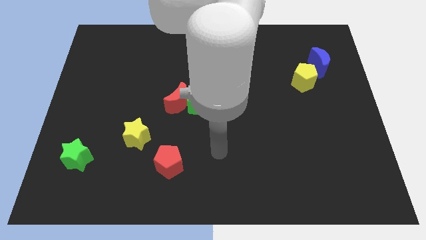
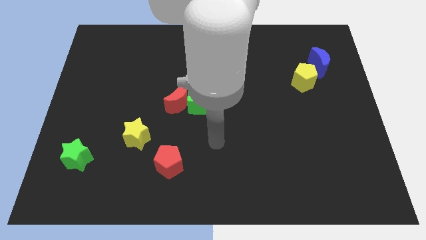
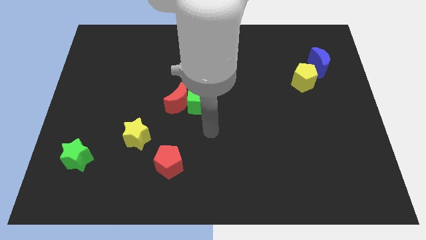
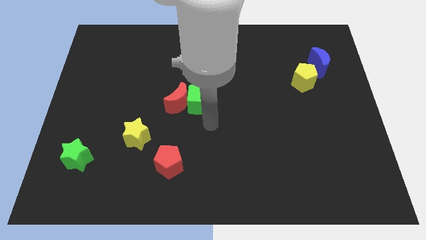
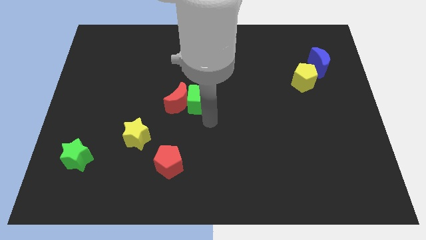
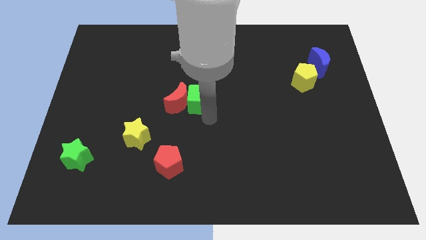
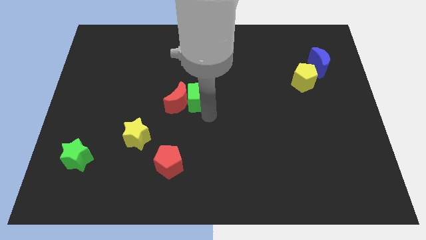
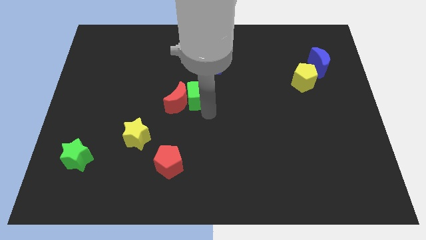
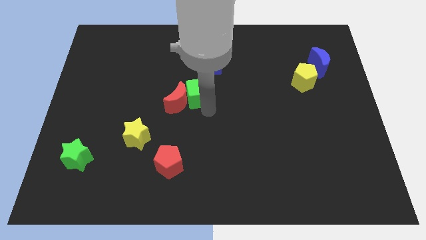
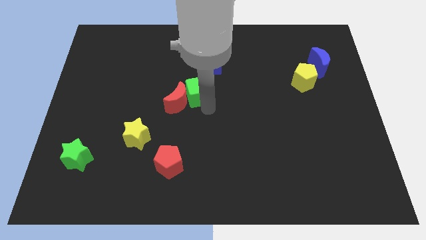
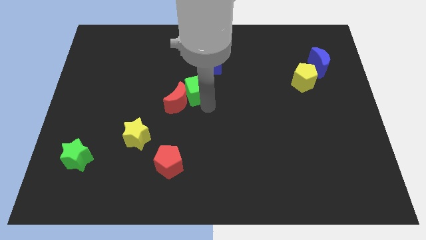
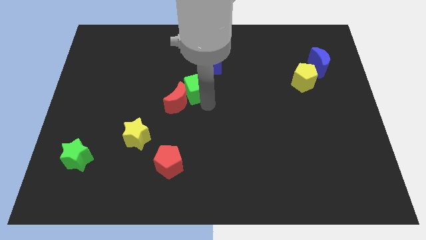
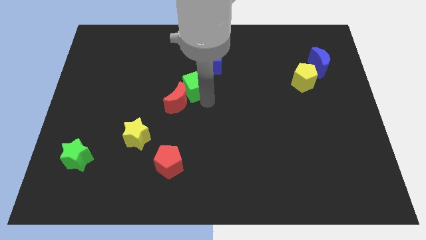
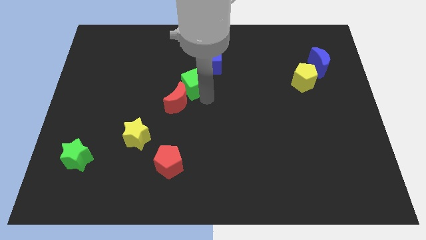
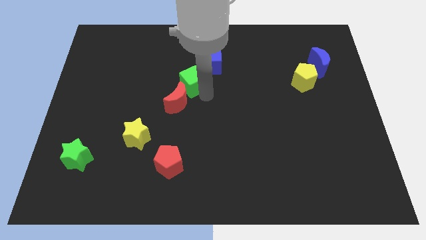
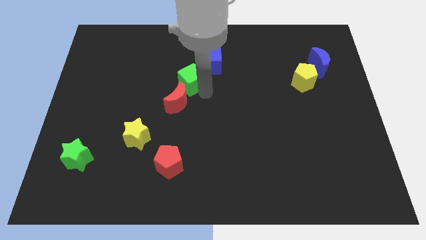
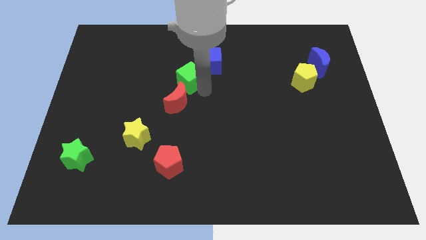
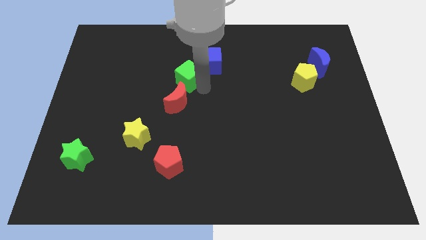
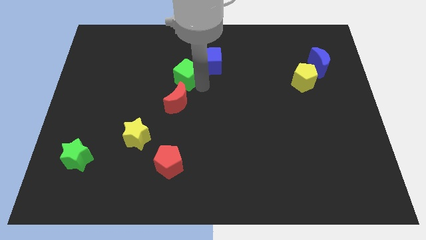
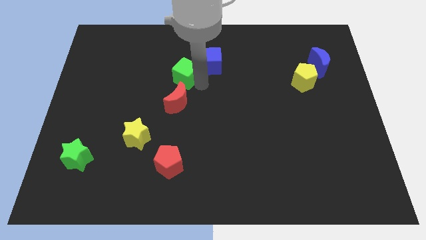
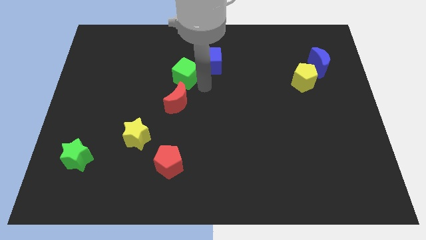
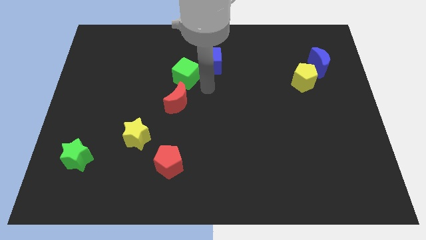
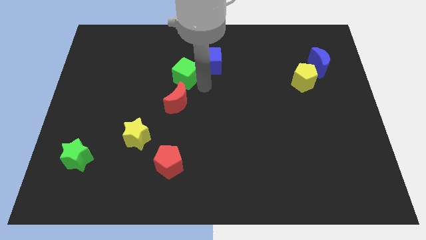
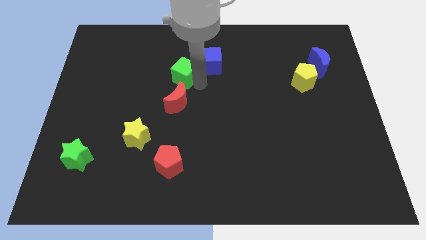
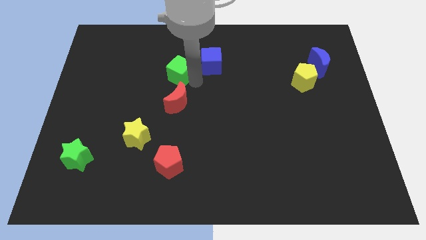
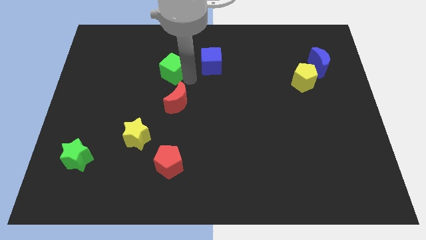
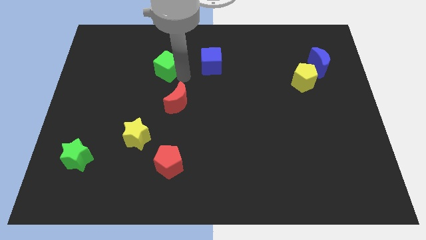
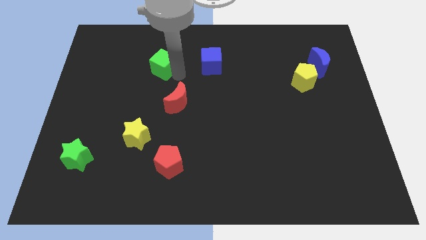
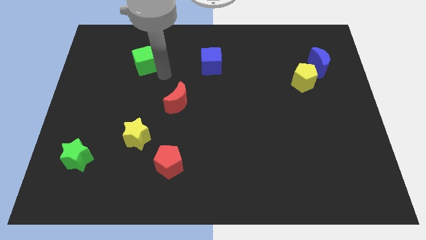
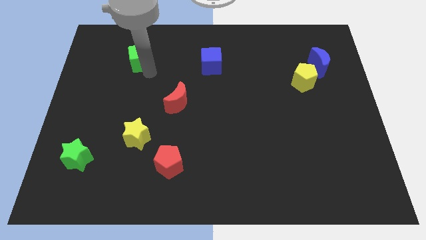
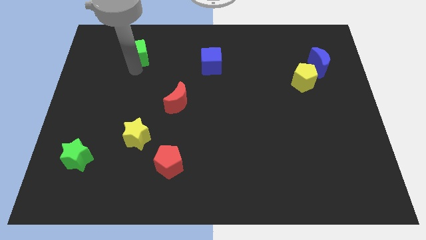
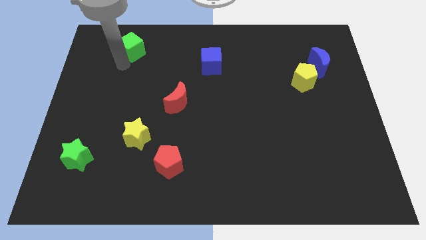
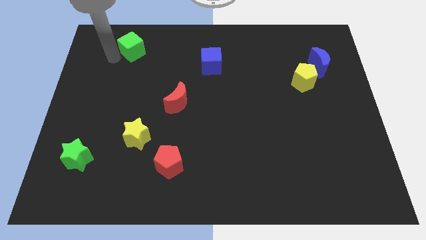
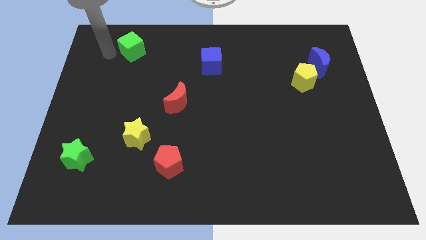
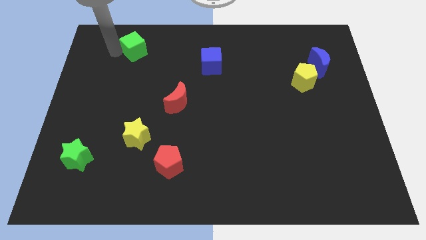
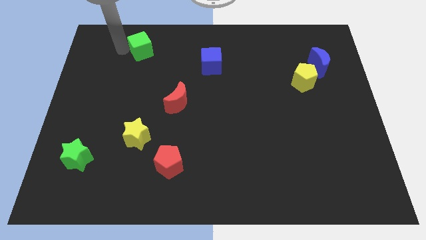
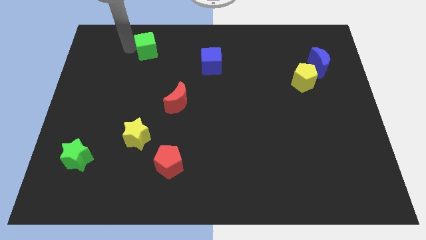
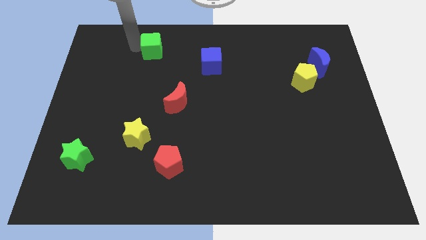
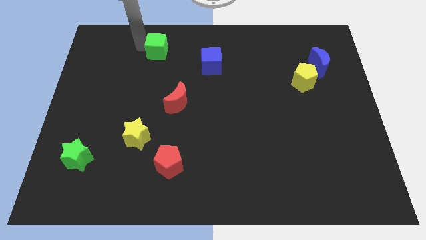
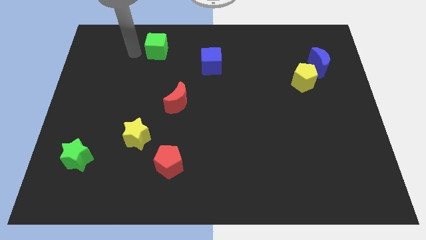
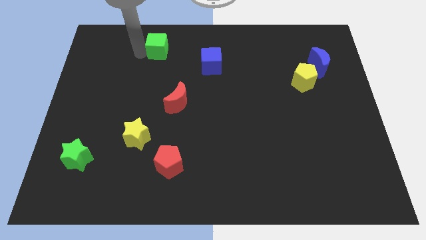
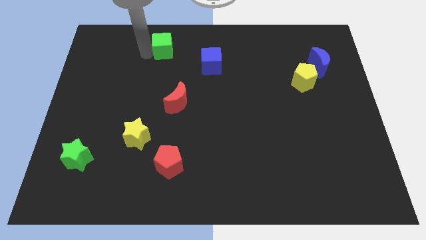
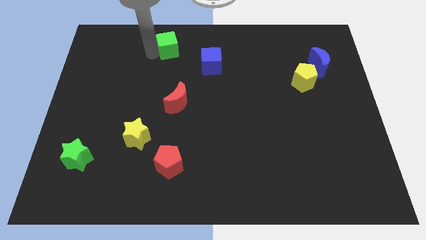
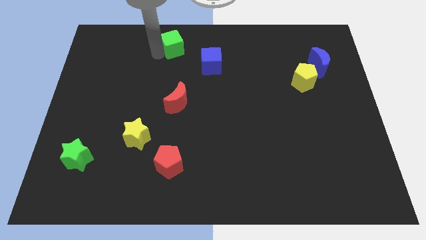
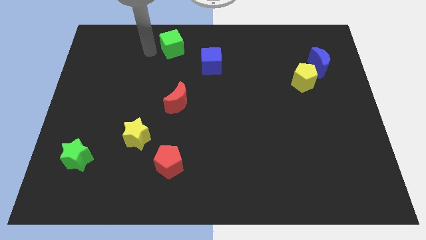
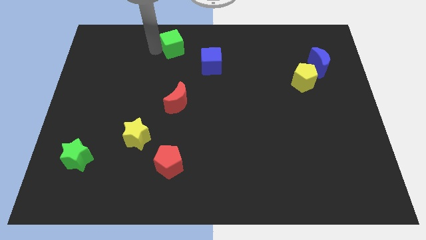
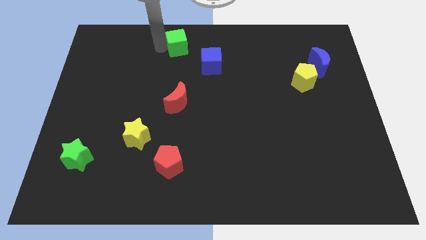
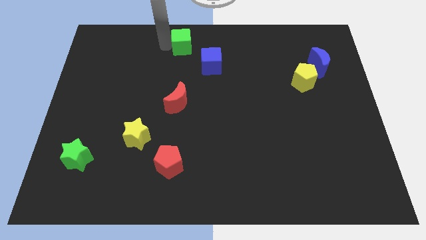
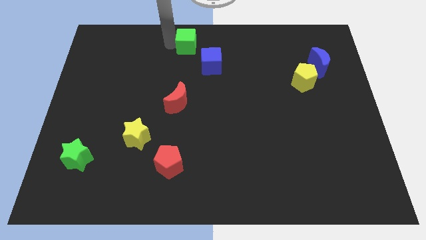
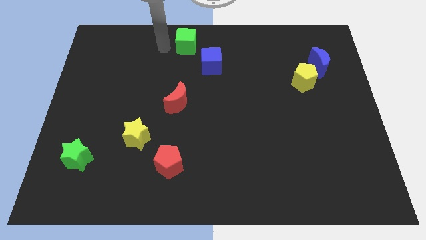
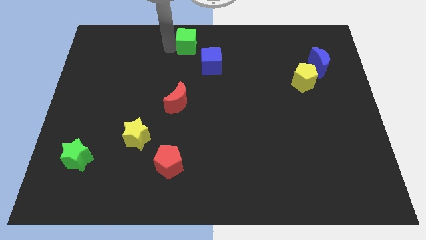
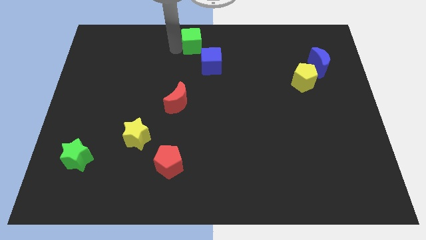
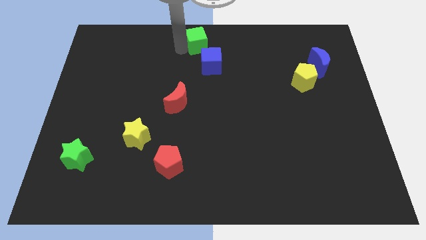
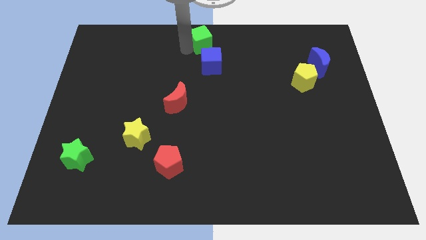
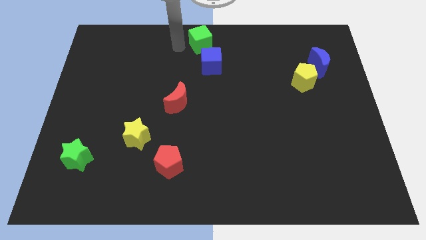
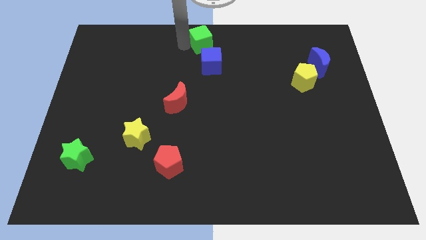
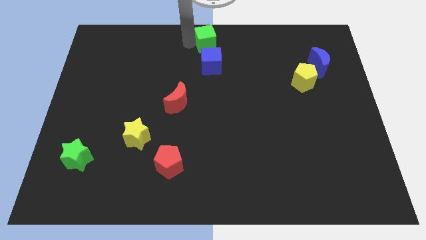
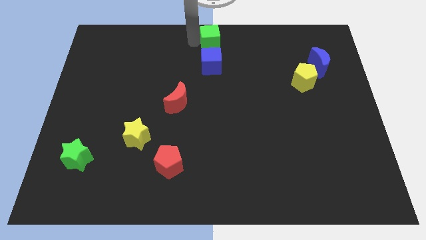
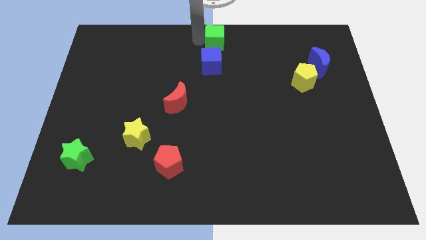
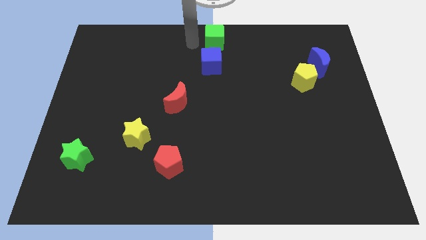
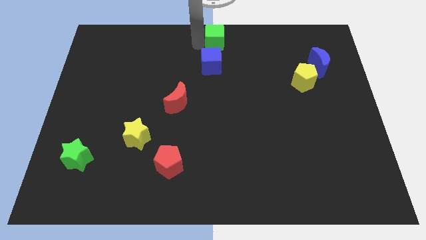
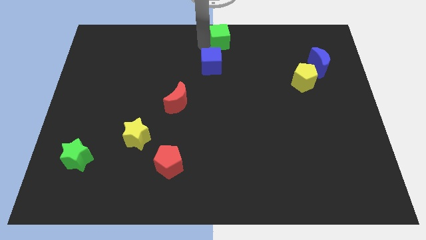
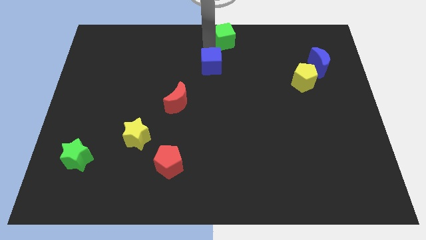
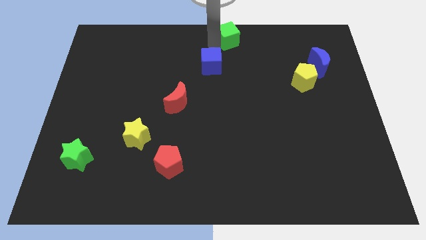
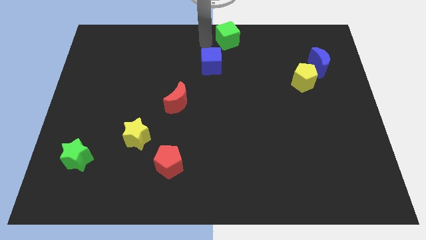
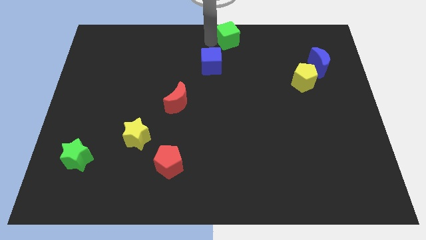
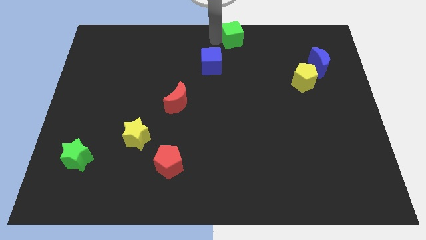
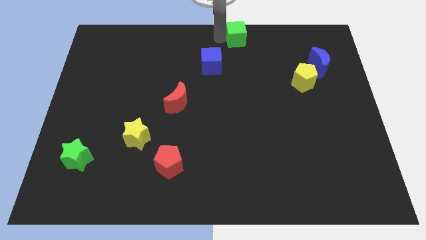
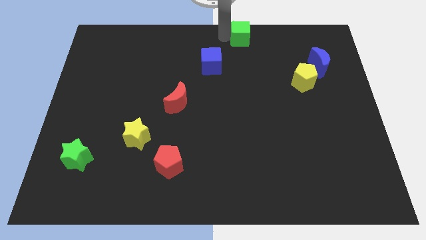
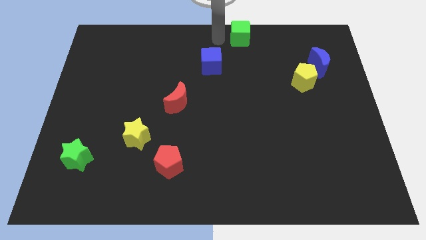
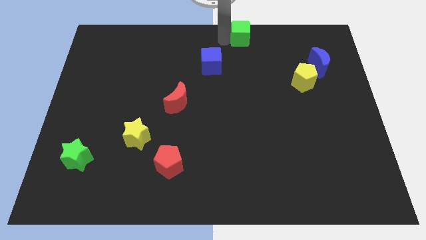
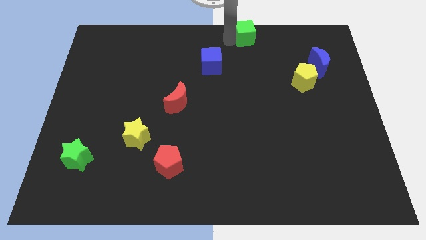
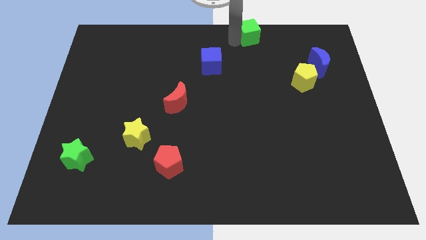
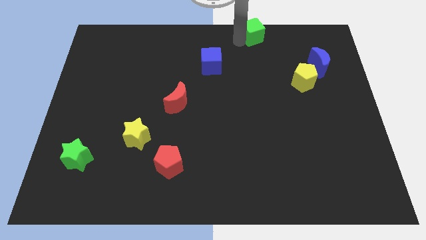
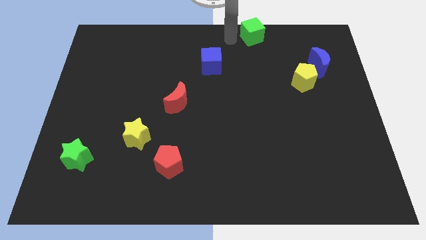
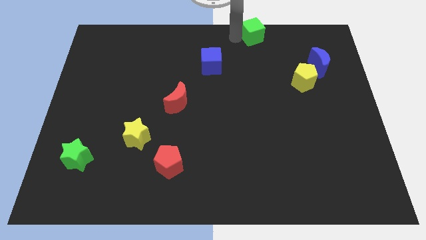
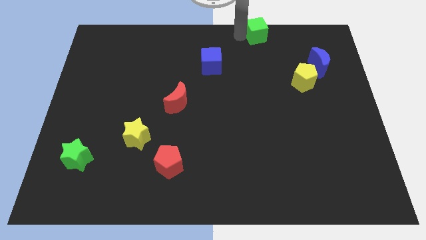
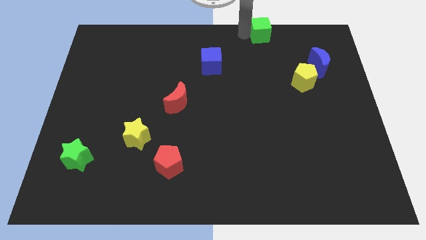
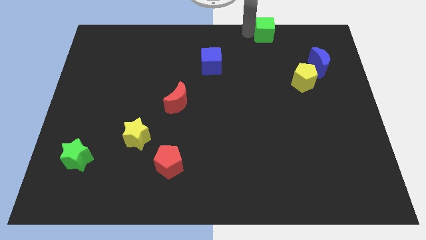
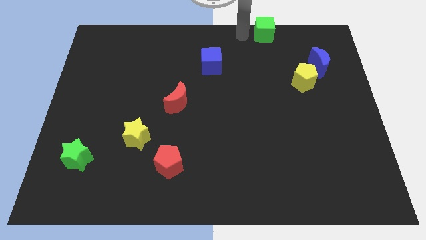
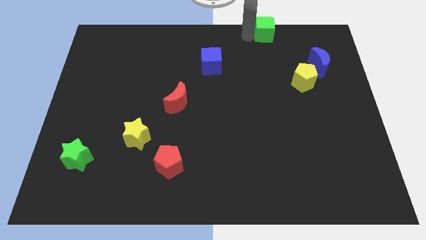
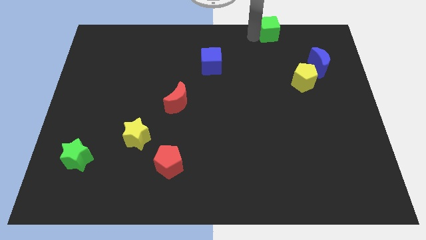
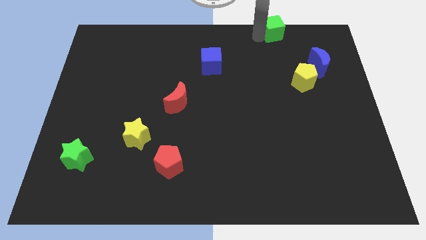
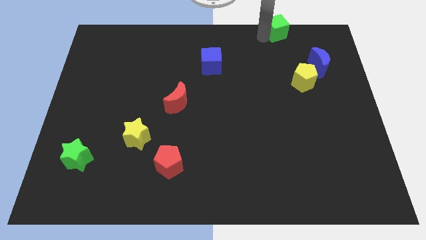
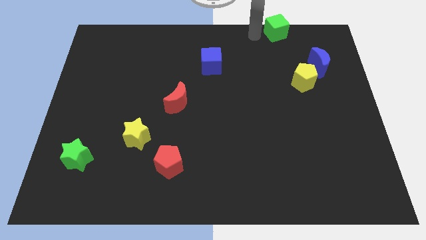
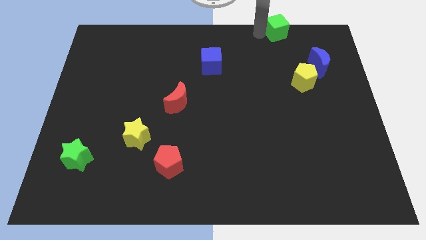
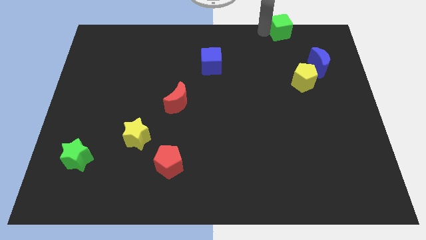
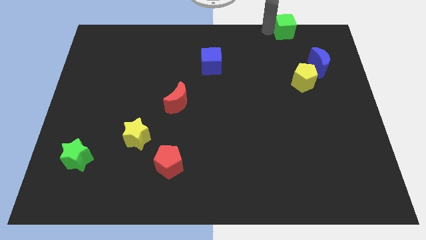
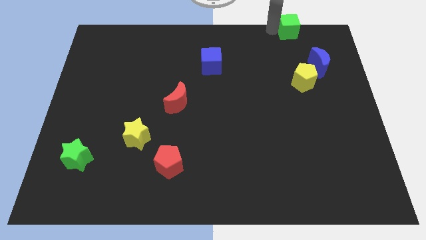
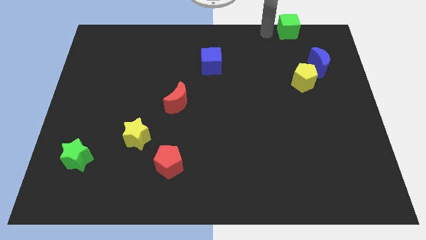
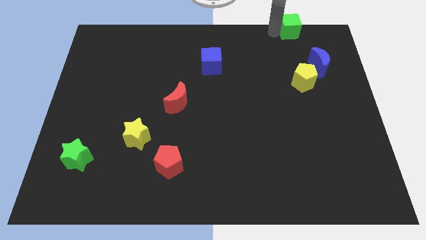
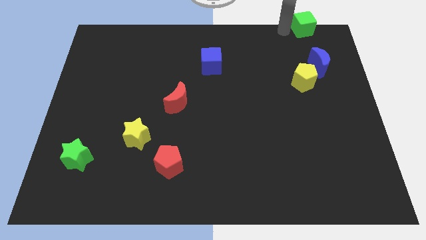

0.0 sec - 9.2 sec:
slide the green cube to the top right of the board
